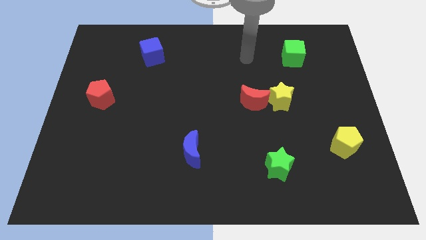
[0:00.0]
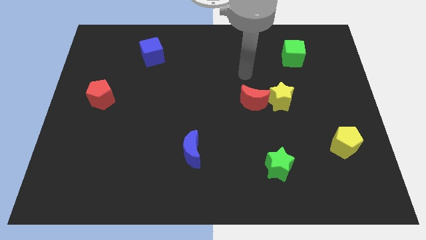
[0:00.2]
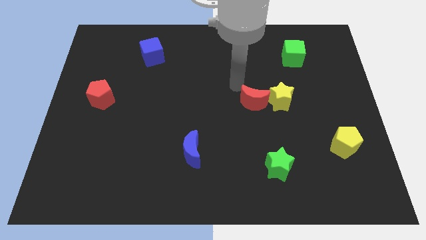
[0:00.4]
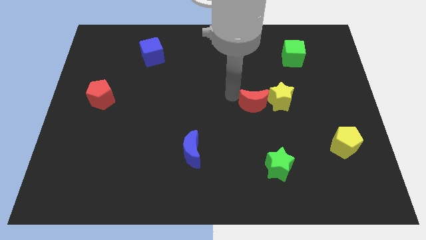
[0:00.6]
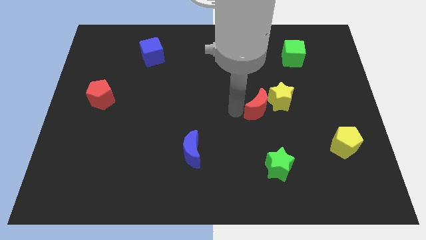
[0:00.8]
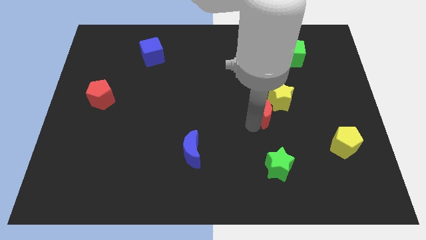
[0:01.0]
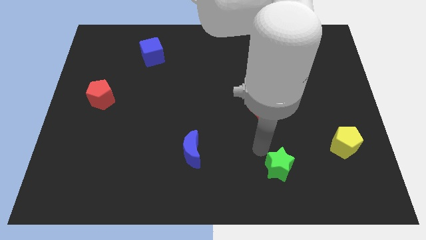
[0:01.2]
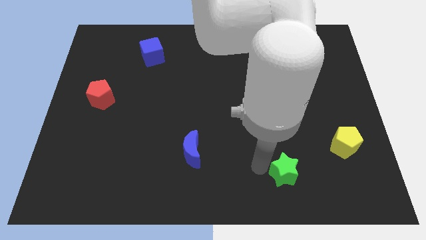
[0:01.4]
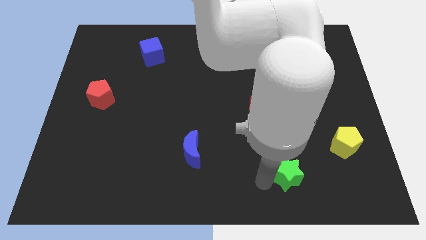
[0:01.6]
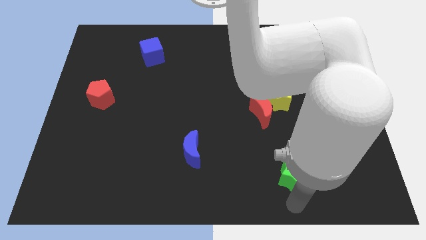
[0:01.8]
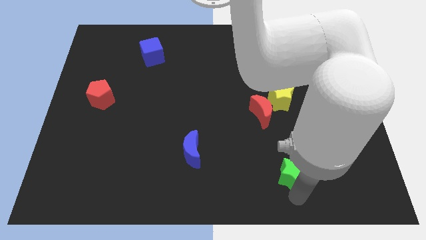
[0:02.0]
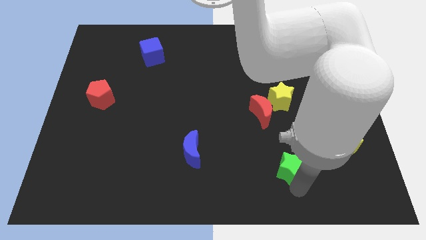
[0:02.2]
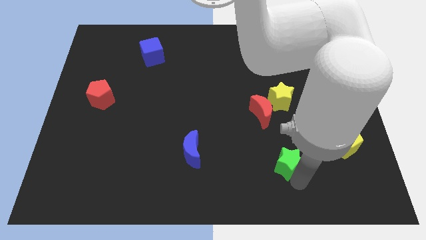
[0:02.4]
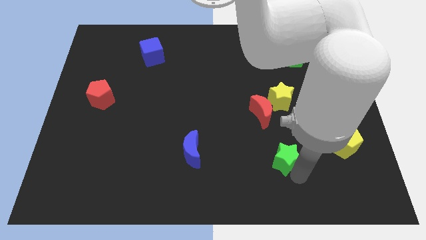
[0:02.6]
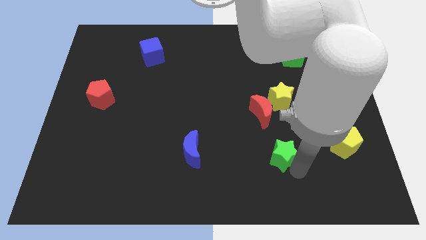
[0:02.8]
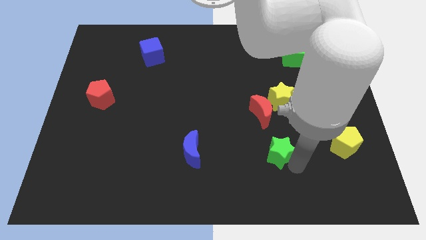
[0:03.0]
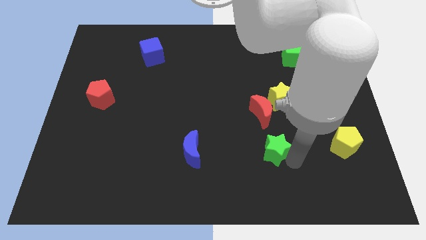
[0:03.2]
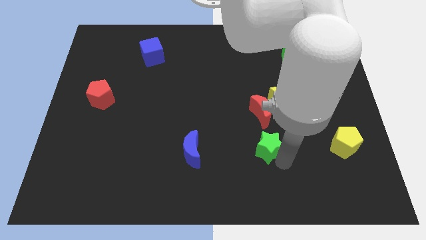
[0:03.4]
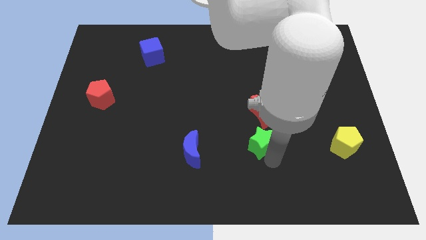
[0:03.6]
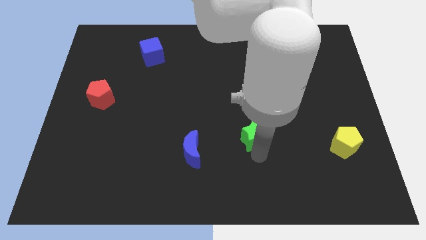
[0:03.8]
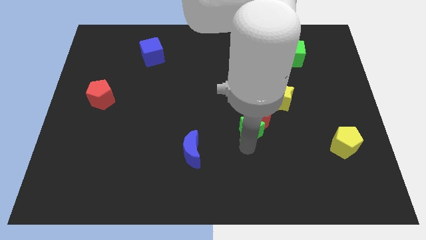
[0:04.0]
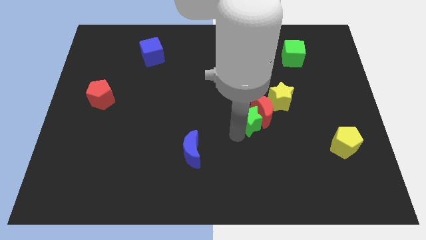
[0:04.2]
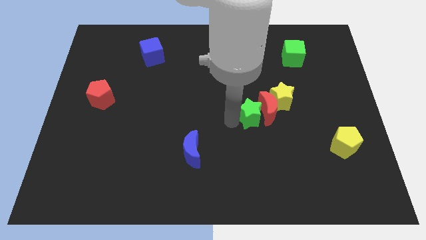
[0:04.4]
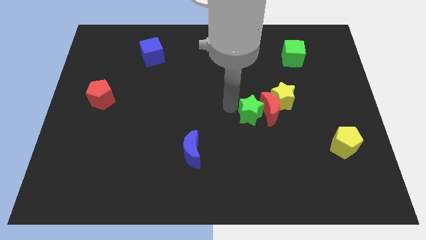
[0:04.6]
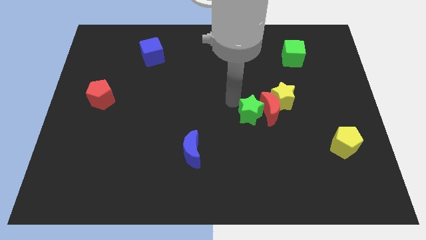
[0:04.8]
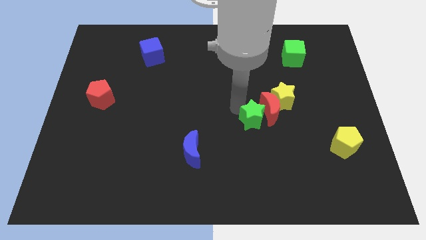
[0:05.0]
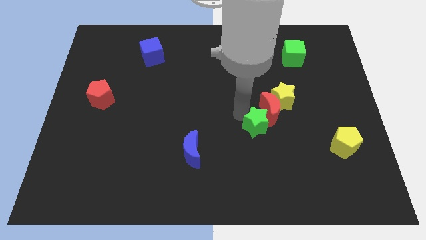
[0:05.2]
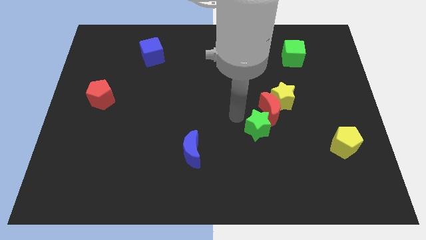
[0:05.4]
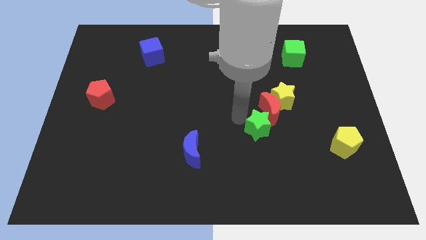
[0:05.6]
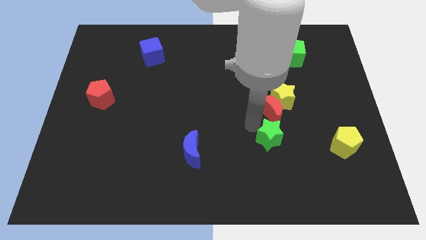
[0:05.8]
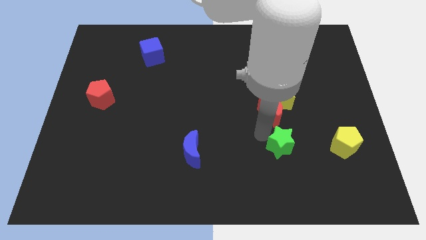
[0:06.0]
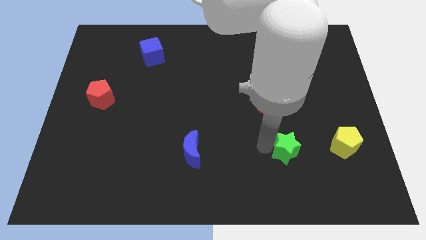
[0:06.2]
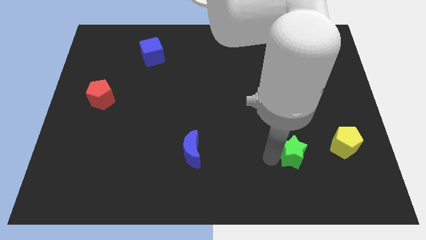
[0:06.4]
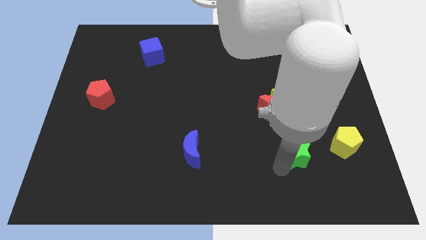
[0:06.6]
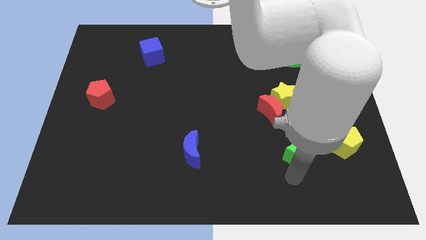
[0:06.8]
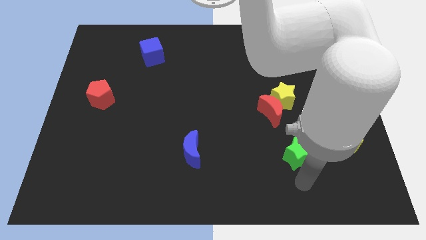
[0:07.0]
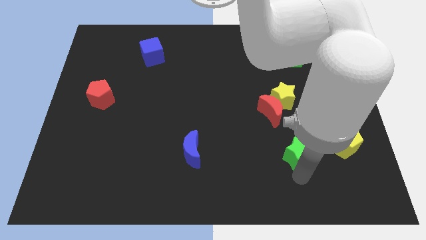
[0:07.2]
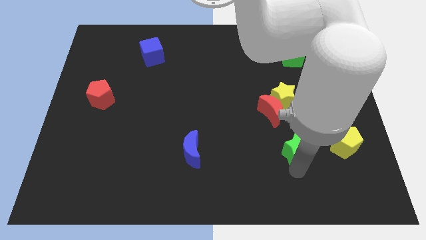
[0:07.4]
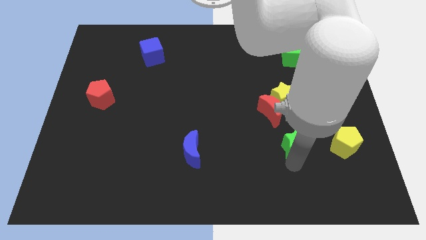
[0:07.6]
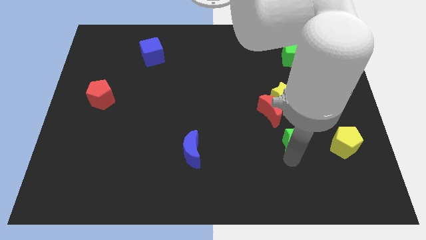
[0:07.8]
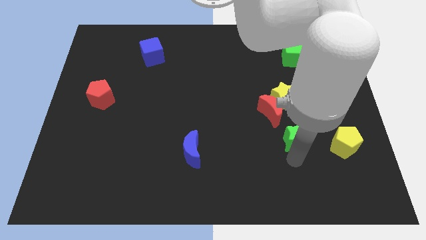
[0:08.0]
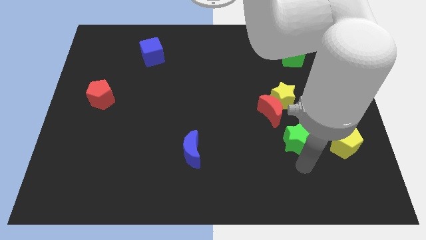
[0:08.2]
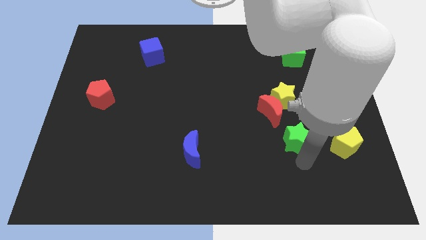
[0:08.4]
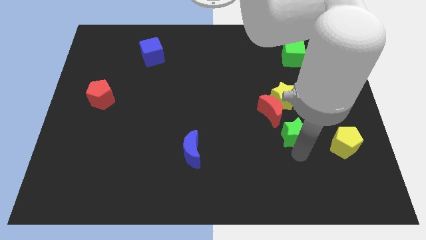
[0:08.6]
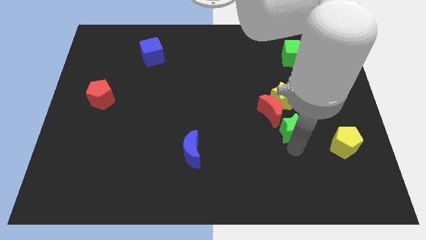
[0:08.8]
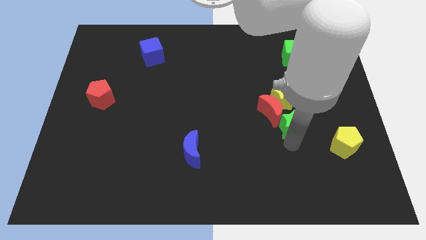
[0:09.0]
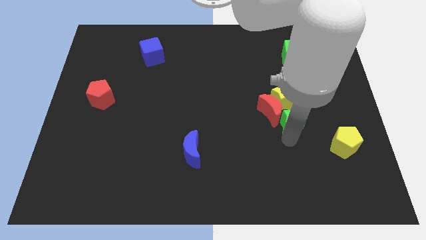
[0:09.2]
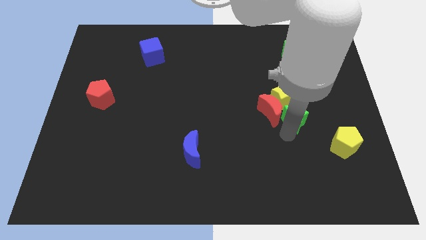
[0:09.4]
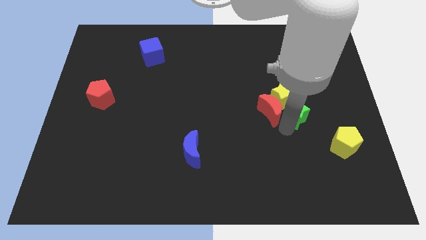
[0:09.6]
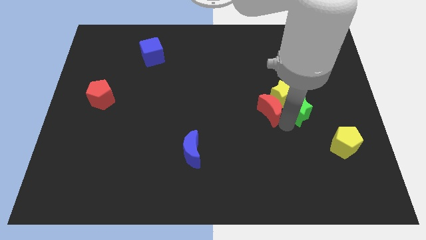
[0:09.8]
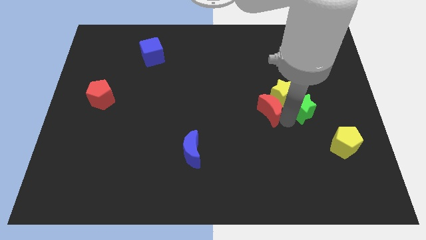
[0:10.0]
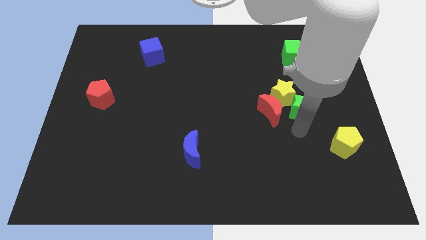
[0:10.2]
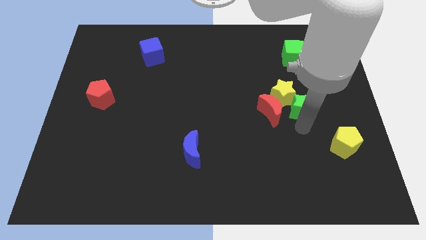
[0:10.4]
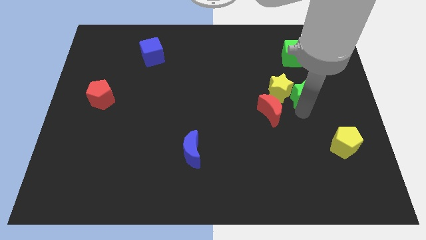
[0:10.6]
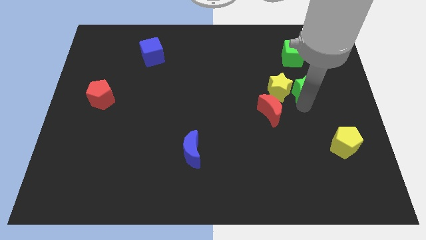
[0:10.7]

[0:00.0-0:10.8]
push the green star to the top right side of the yellow star
